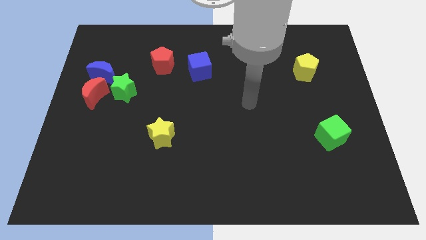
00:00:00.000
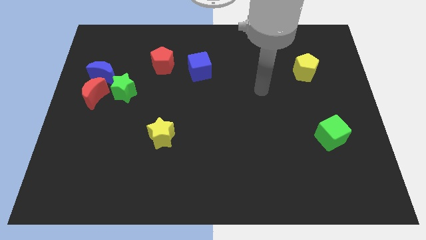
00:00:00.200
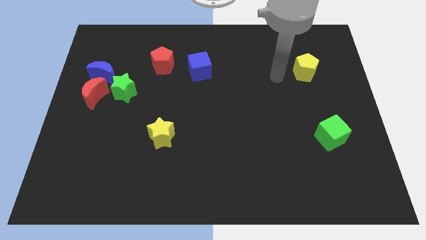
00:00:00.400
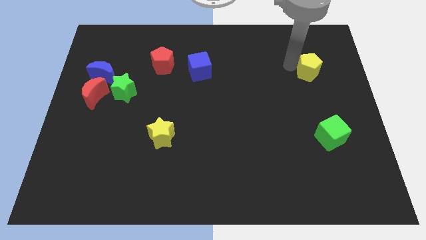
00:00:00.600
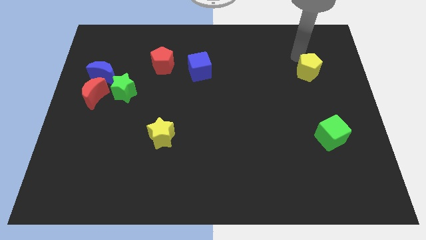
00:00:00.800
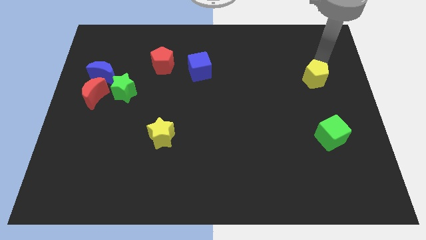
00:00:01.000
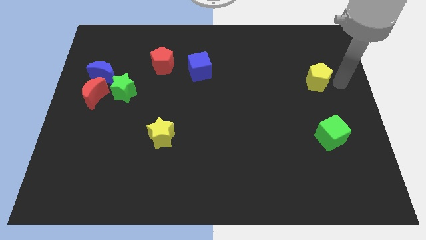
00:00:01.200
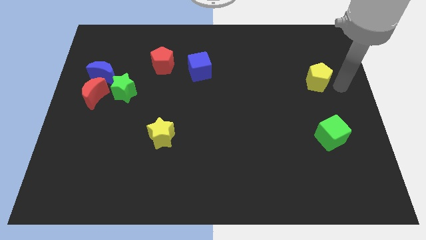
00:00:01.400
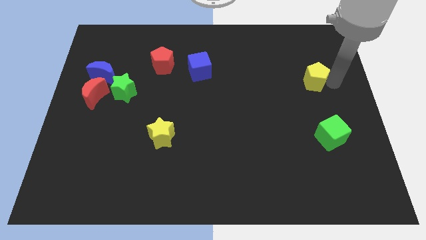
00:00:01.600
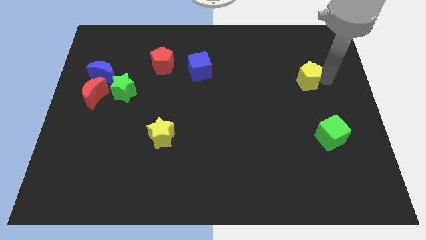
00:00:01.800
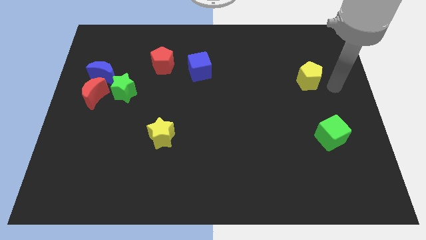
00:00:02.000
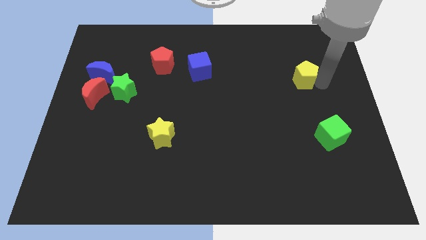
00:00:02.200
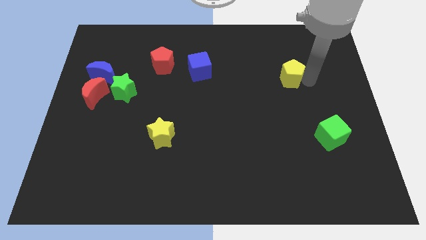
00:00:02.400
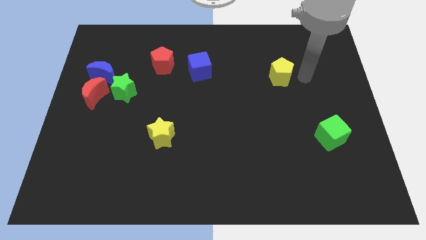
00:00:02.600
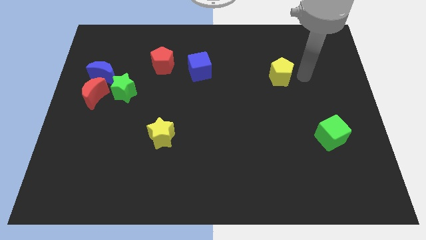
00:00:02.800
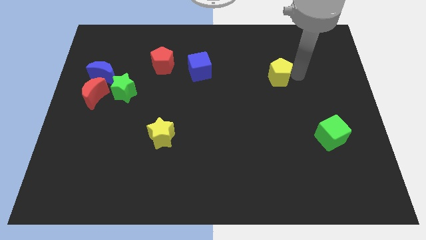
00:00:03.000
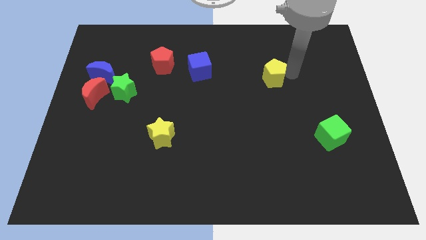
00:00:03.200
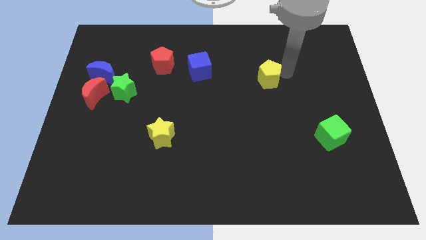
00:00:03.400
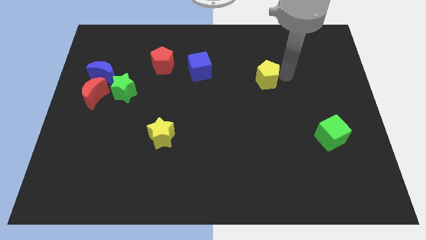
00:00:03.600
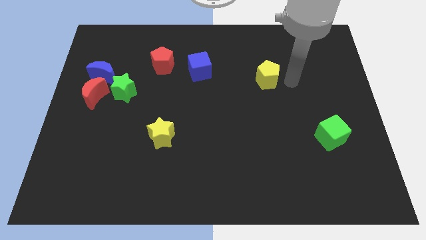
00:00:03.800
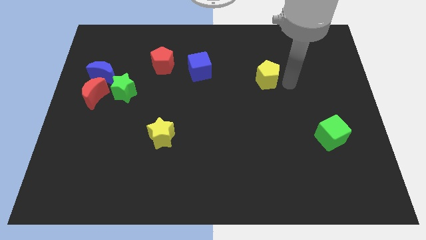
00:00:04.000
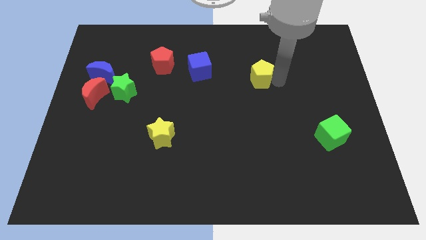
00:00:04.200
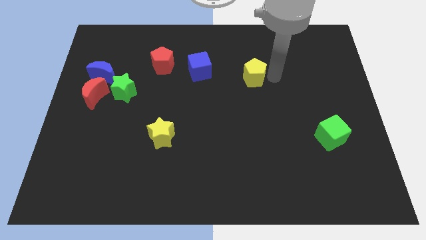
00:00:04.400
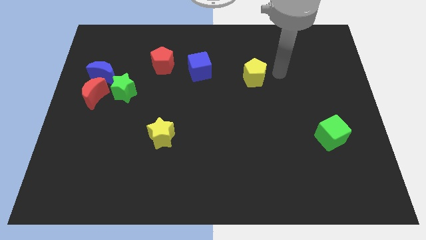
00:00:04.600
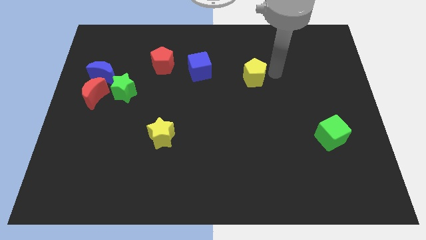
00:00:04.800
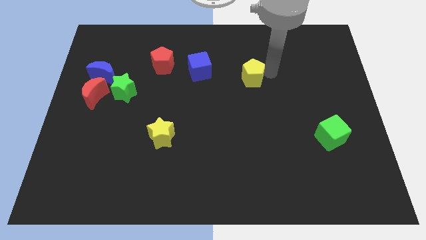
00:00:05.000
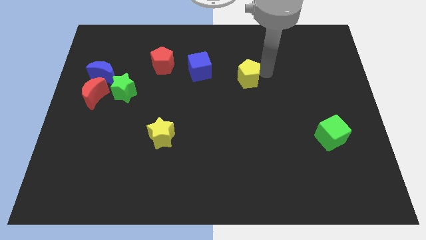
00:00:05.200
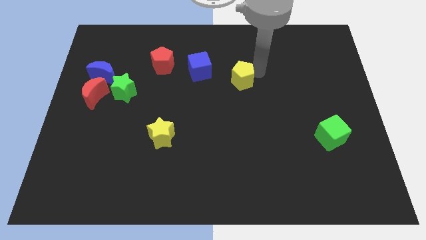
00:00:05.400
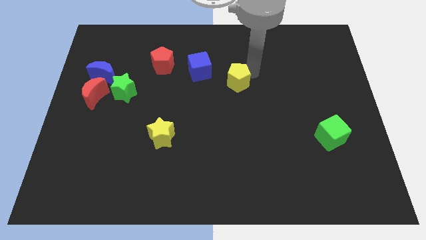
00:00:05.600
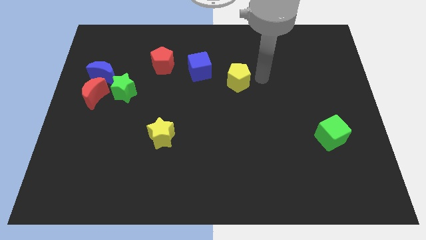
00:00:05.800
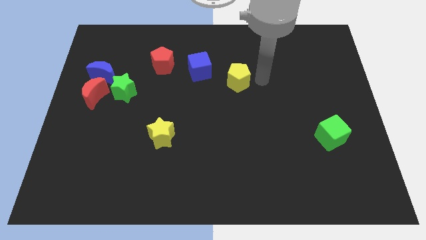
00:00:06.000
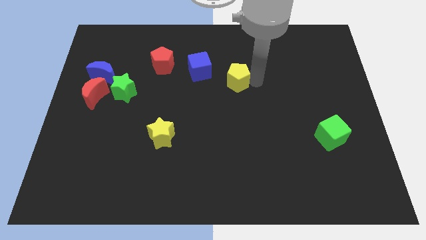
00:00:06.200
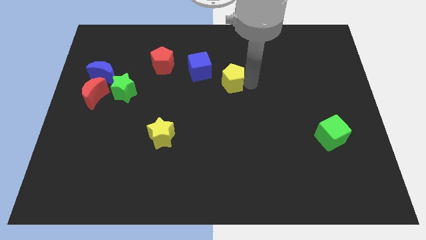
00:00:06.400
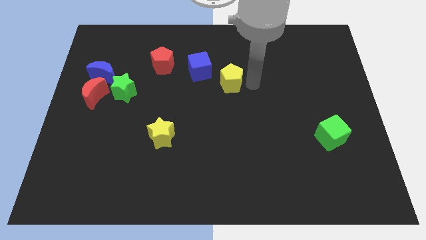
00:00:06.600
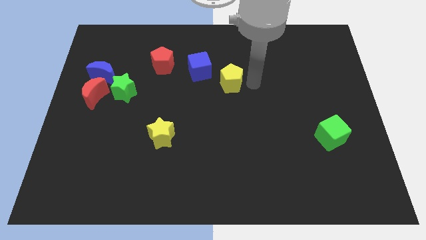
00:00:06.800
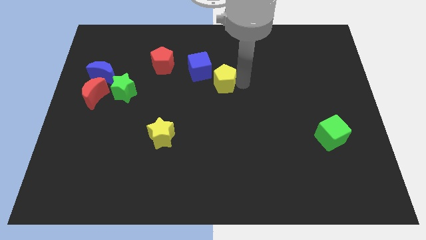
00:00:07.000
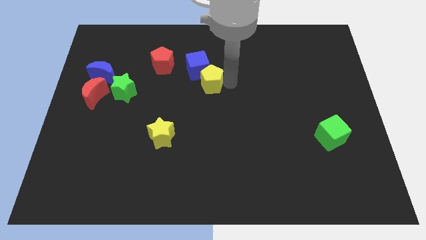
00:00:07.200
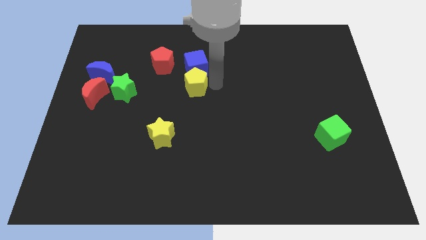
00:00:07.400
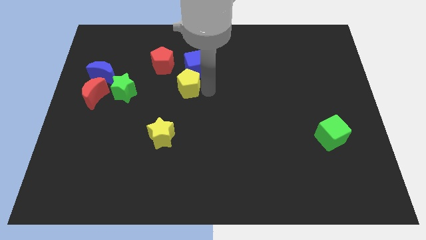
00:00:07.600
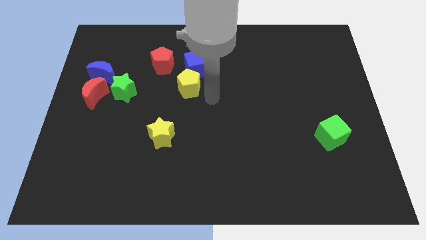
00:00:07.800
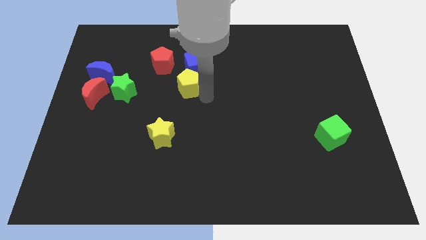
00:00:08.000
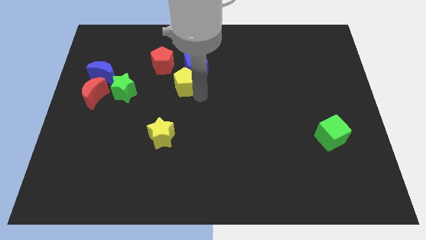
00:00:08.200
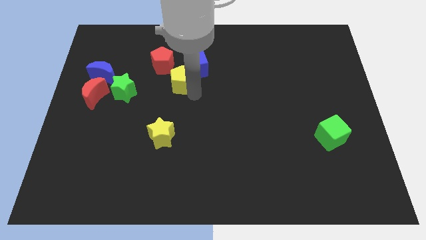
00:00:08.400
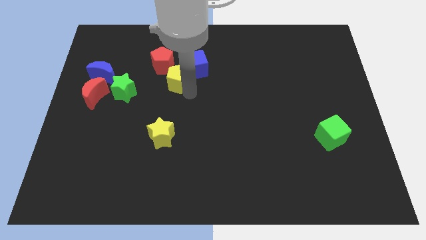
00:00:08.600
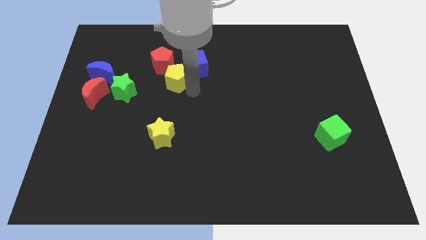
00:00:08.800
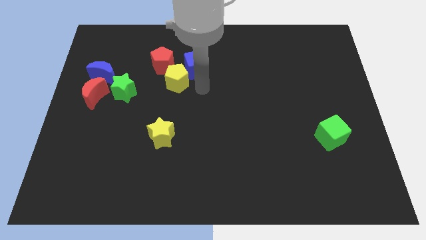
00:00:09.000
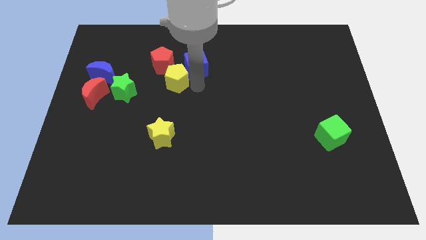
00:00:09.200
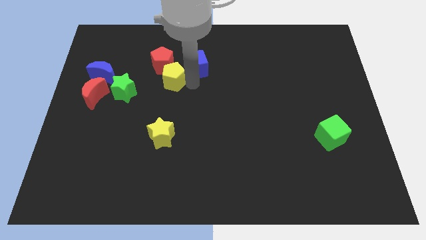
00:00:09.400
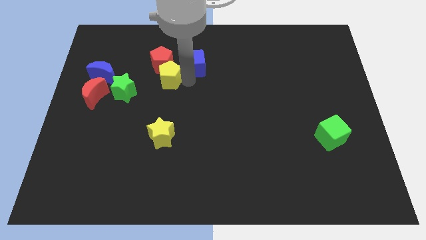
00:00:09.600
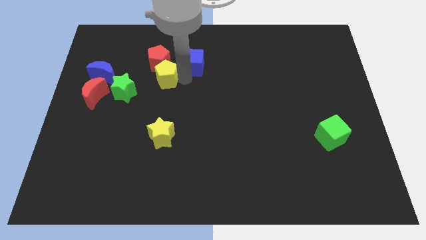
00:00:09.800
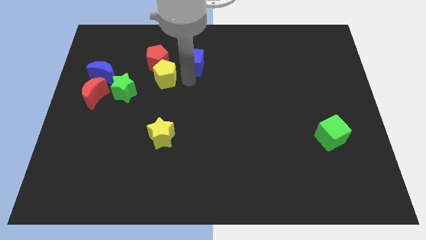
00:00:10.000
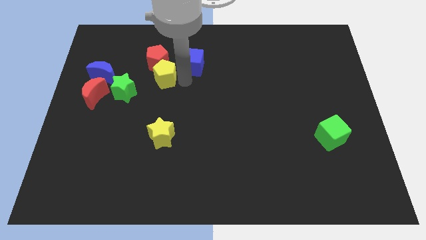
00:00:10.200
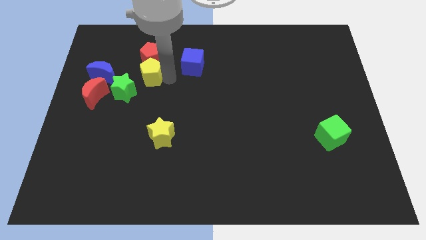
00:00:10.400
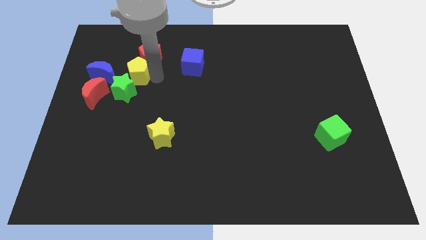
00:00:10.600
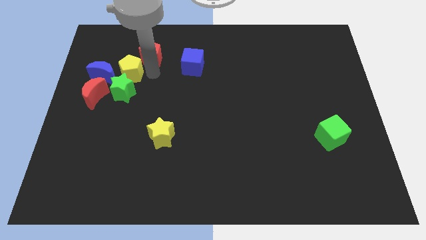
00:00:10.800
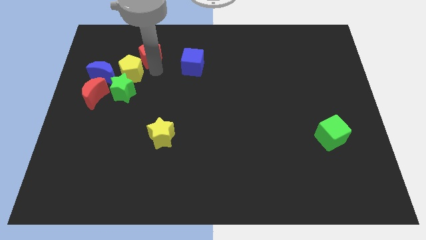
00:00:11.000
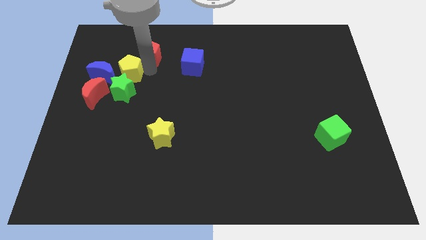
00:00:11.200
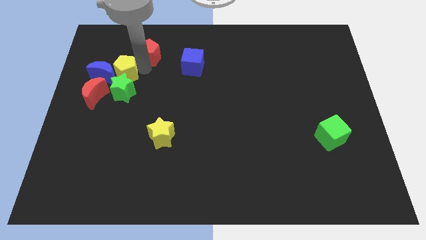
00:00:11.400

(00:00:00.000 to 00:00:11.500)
push the yellow pentagon next to the blue moon

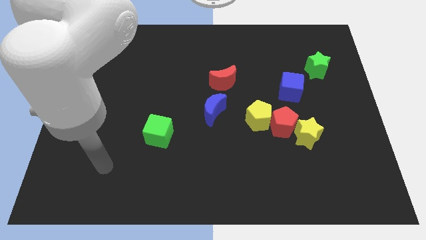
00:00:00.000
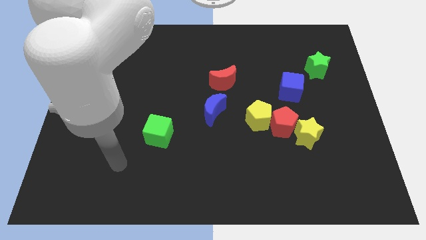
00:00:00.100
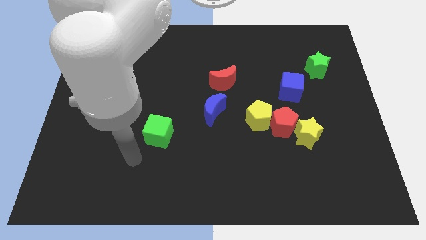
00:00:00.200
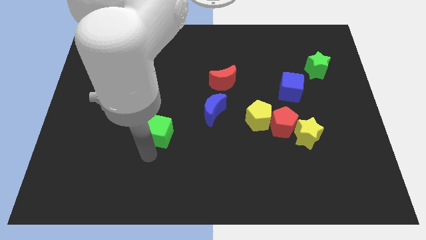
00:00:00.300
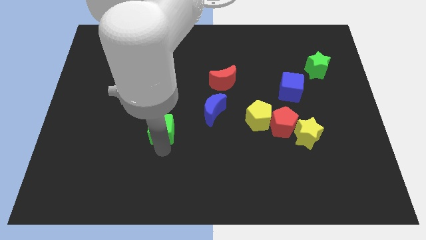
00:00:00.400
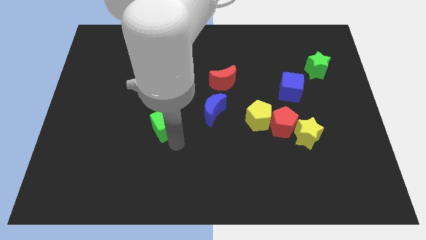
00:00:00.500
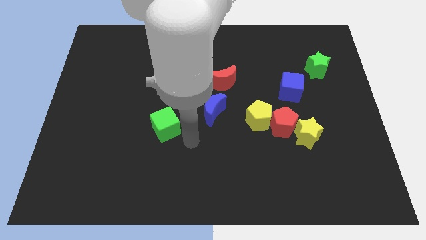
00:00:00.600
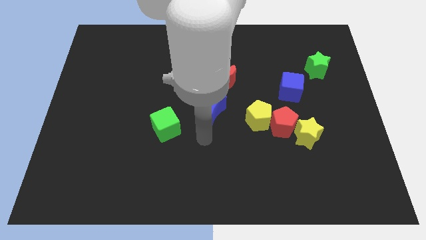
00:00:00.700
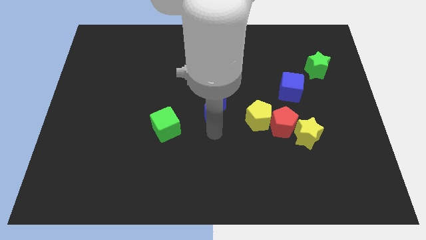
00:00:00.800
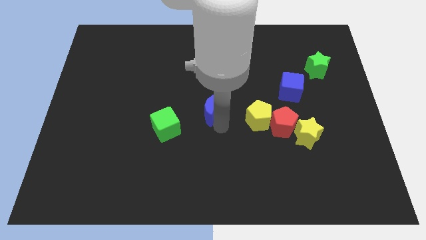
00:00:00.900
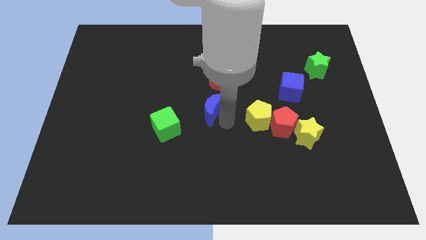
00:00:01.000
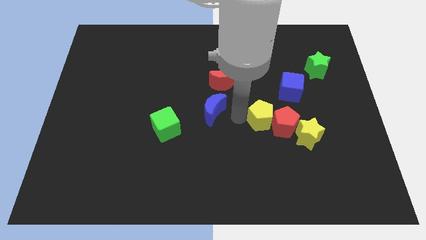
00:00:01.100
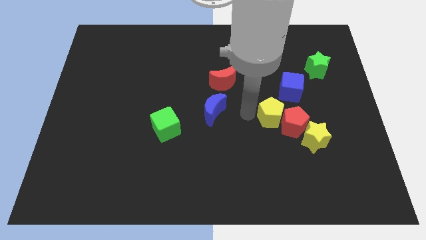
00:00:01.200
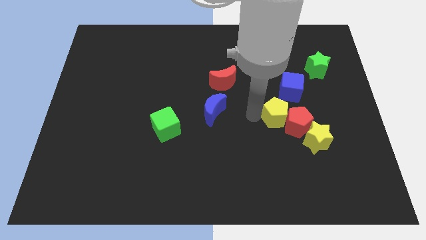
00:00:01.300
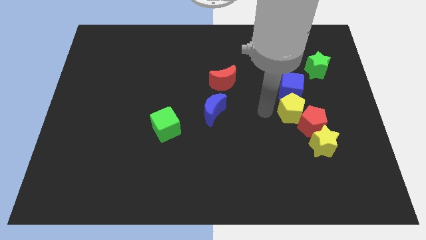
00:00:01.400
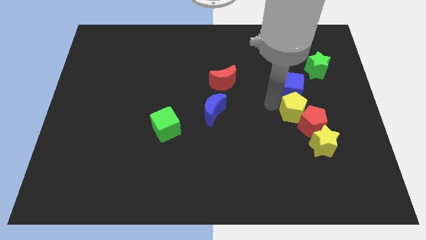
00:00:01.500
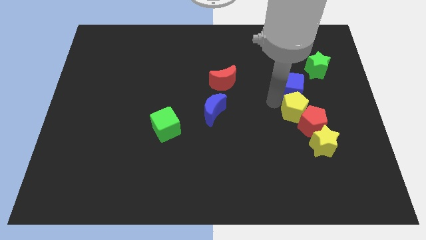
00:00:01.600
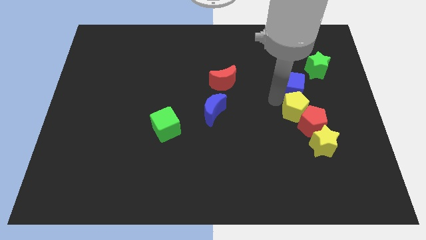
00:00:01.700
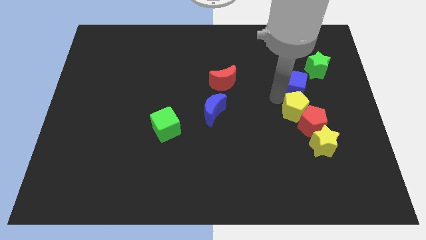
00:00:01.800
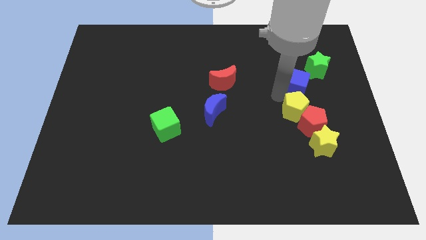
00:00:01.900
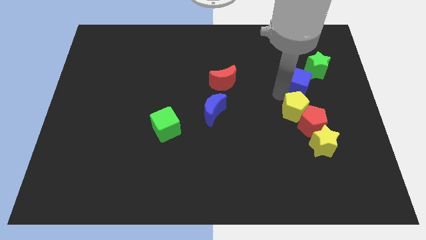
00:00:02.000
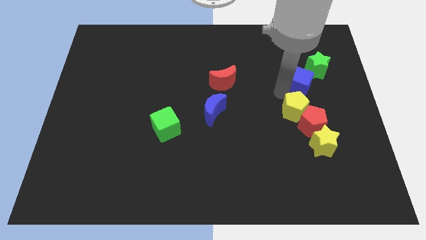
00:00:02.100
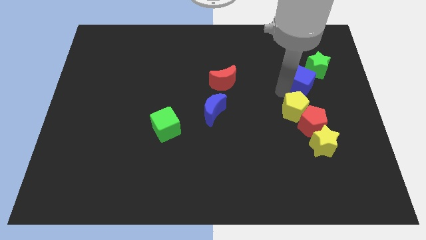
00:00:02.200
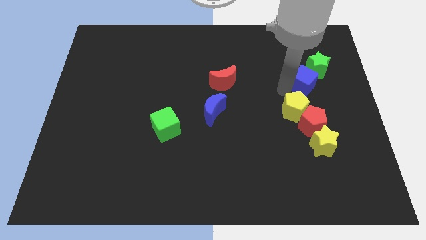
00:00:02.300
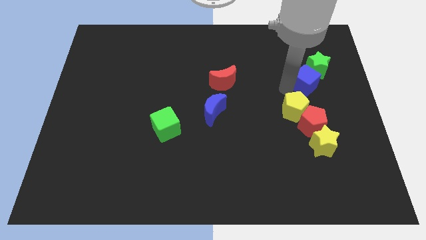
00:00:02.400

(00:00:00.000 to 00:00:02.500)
put the blue cube next to the green star
